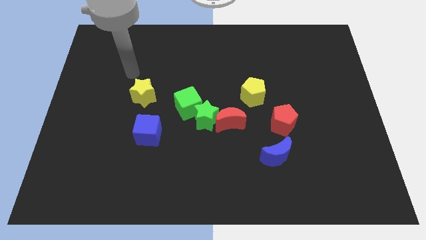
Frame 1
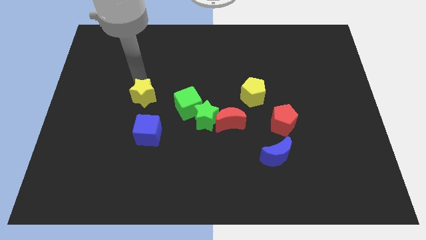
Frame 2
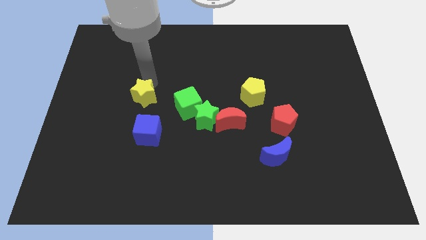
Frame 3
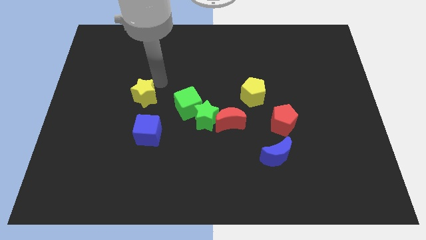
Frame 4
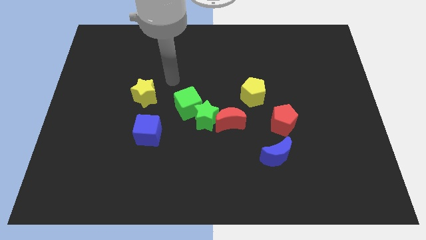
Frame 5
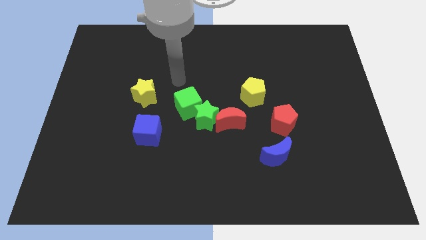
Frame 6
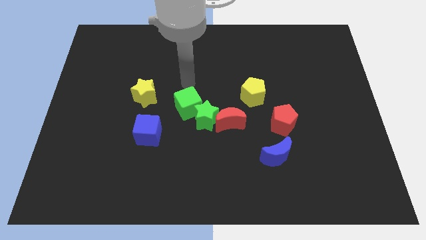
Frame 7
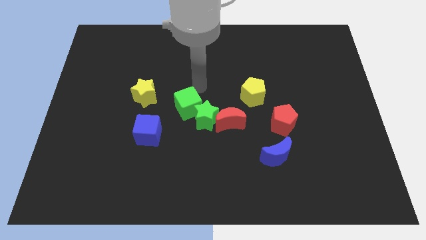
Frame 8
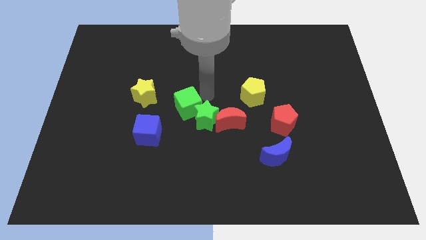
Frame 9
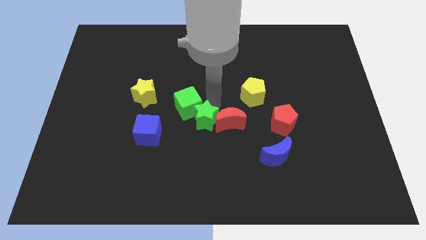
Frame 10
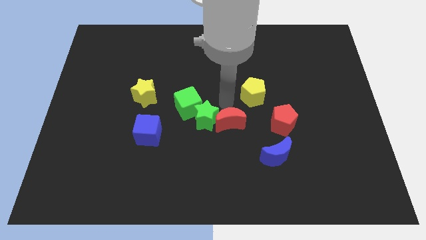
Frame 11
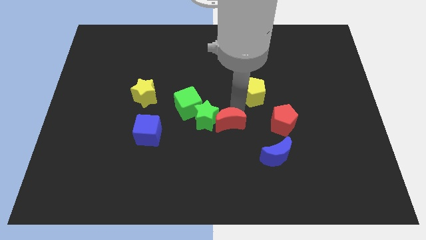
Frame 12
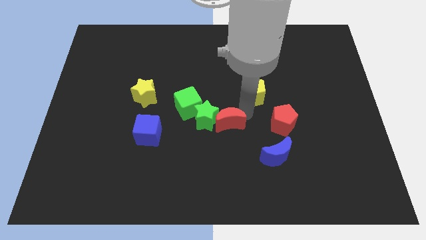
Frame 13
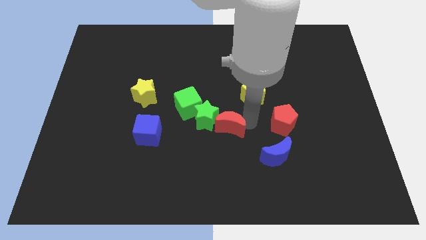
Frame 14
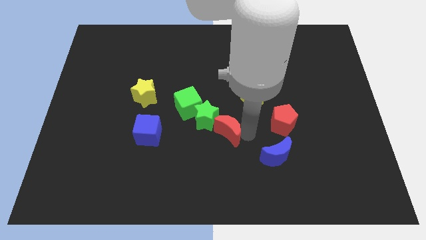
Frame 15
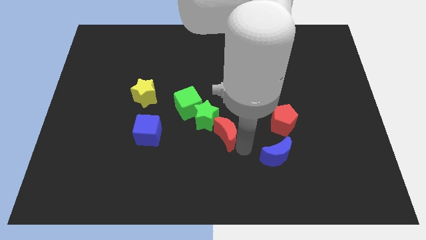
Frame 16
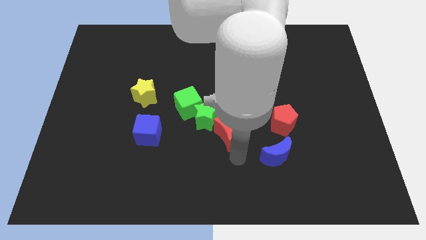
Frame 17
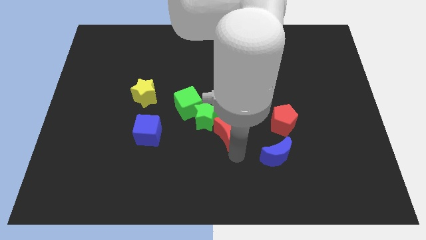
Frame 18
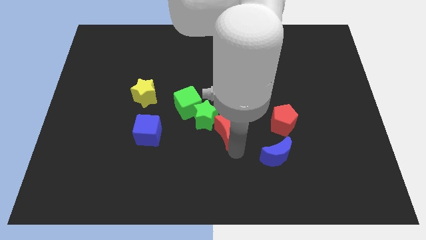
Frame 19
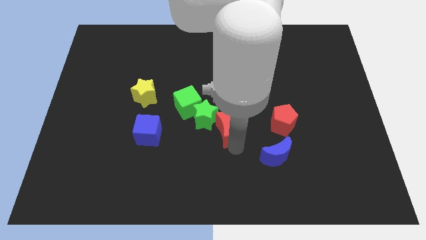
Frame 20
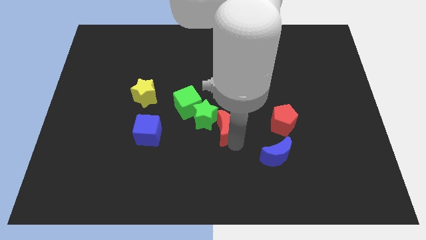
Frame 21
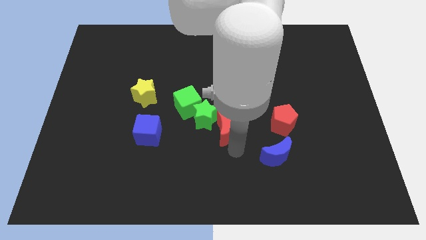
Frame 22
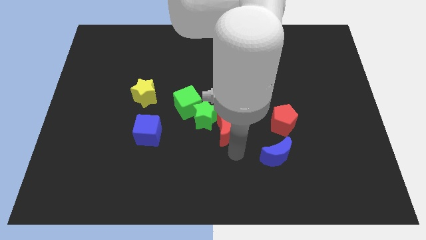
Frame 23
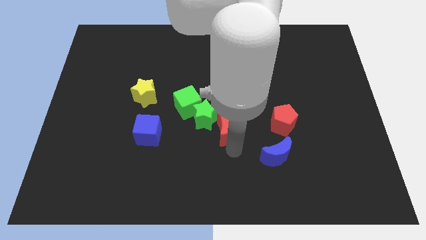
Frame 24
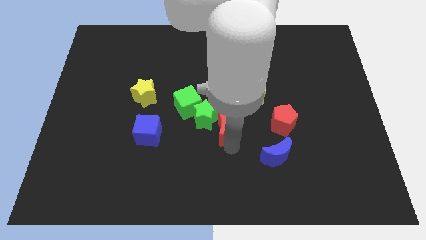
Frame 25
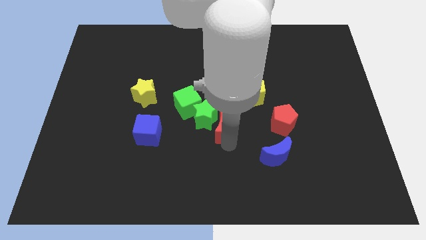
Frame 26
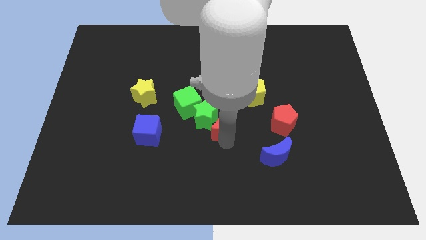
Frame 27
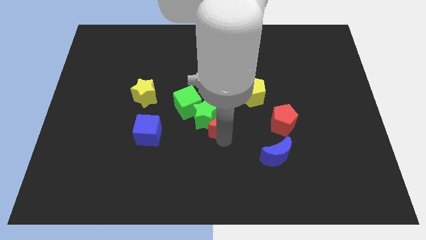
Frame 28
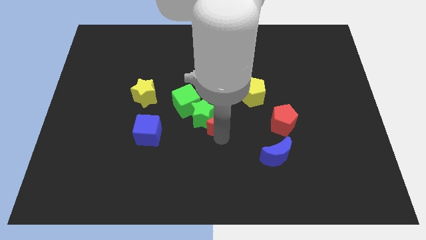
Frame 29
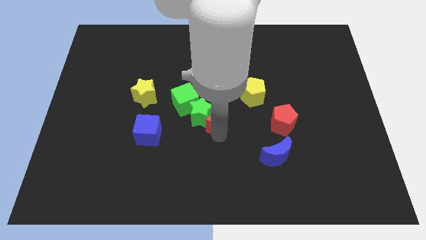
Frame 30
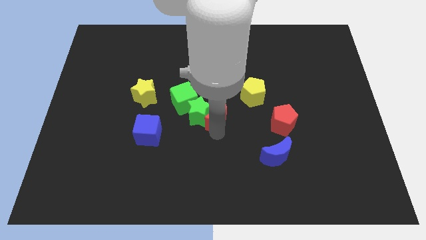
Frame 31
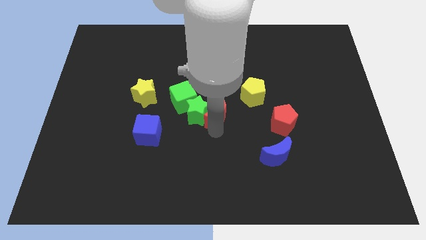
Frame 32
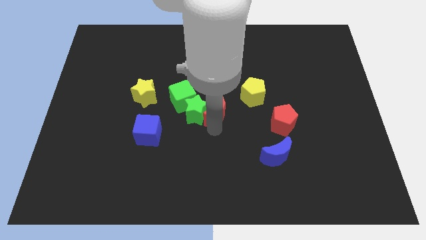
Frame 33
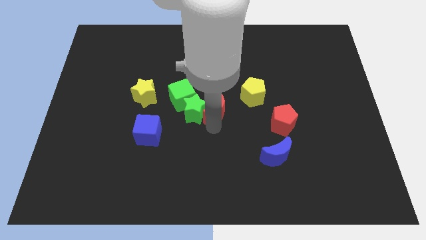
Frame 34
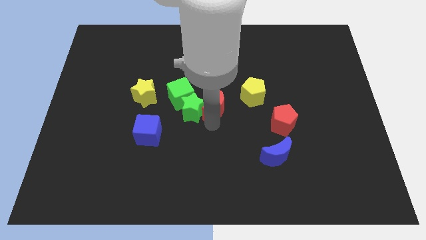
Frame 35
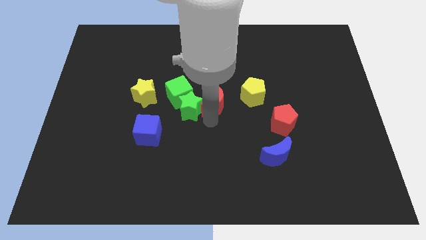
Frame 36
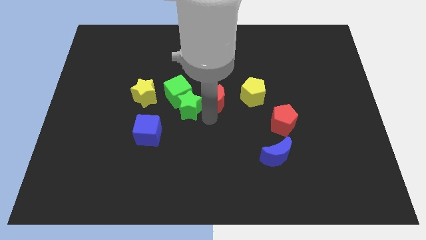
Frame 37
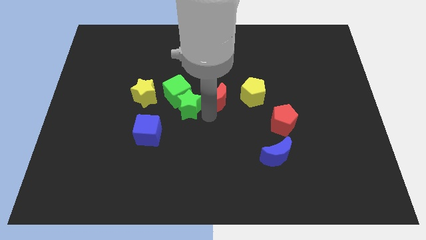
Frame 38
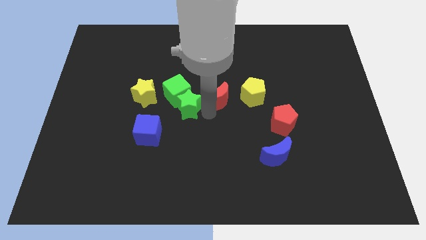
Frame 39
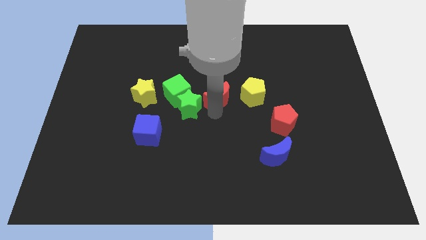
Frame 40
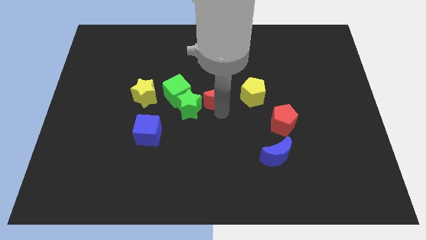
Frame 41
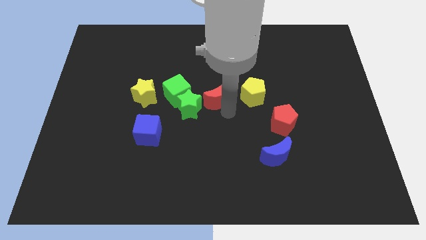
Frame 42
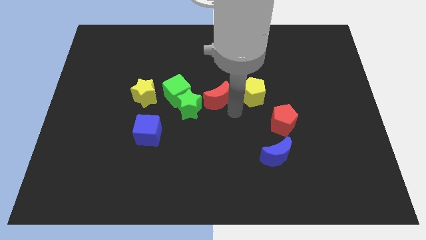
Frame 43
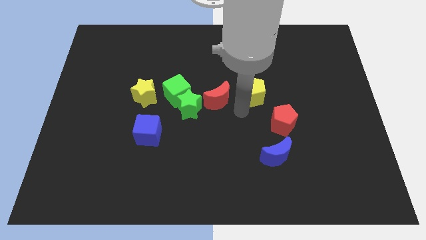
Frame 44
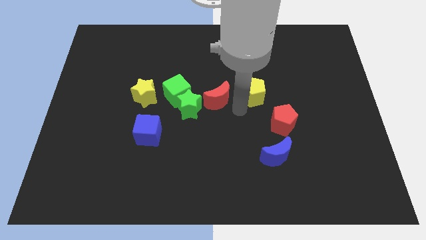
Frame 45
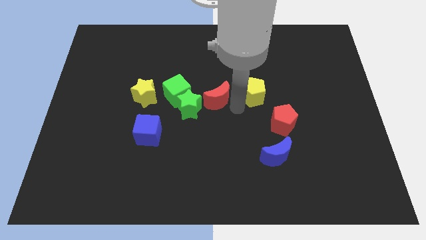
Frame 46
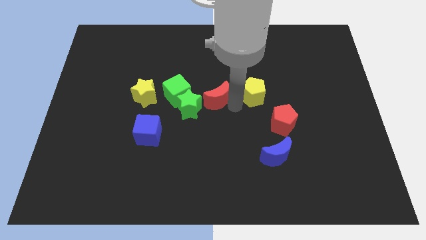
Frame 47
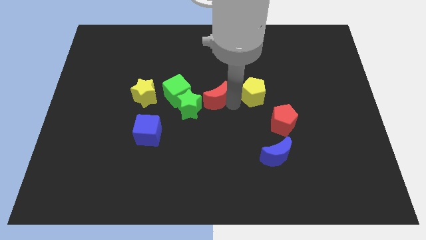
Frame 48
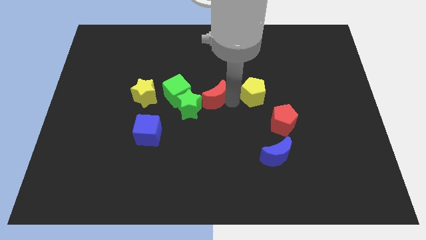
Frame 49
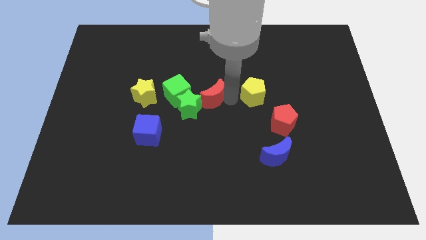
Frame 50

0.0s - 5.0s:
move the red moon up and then left a bit

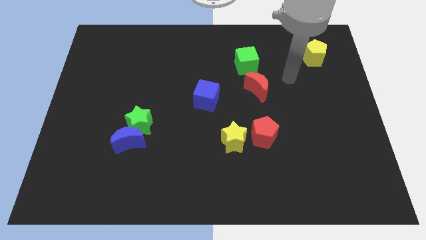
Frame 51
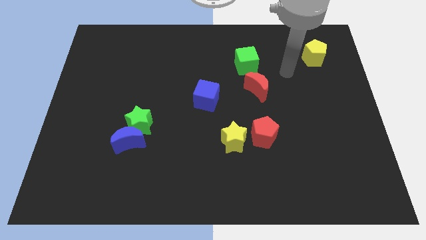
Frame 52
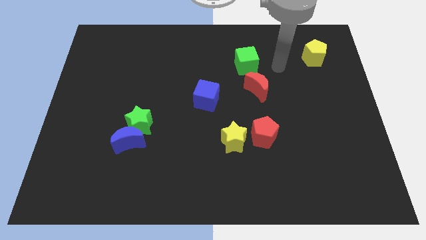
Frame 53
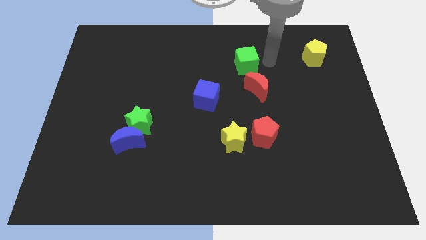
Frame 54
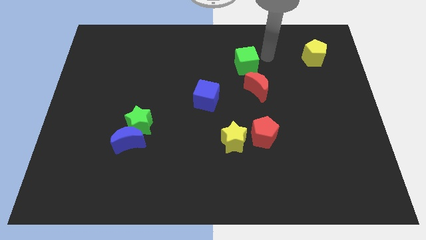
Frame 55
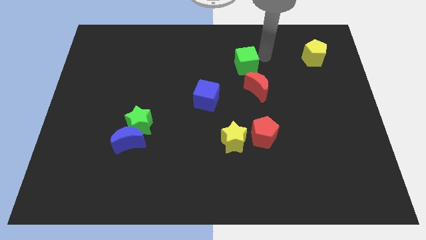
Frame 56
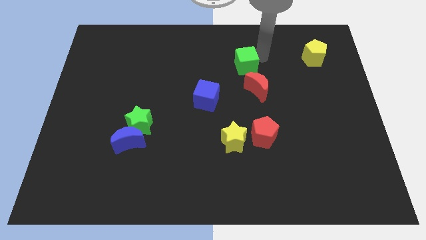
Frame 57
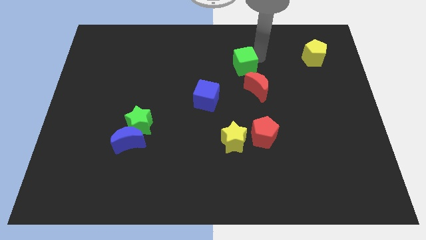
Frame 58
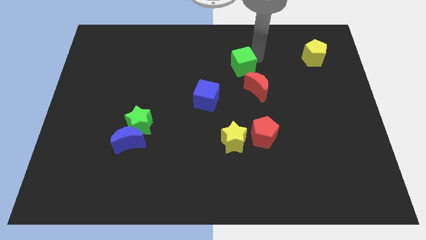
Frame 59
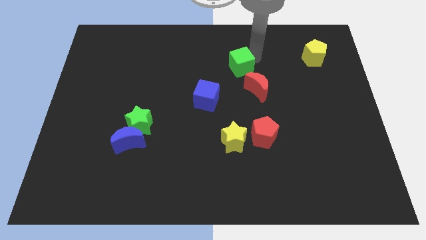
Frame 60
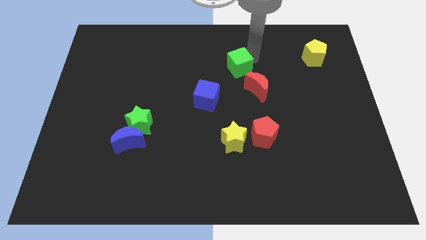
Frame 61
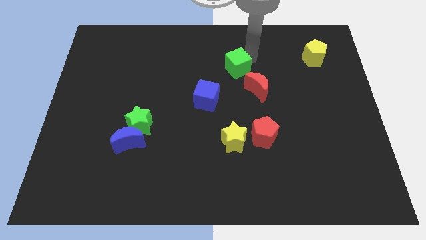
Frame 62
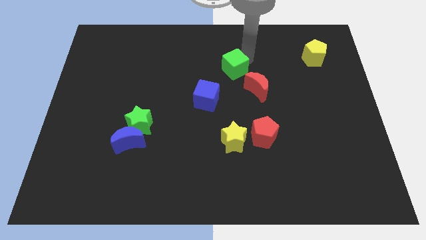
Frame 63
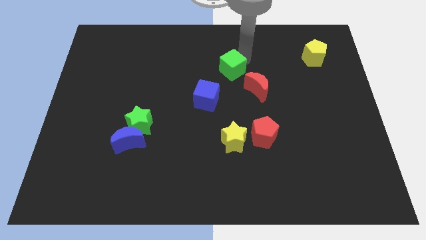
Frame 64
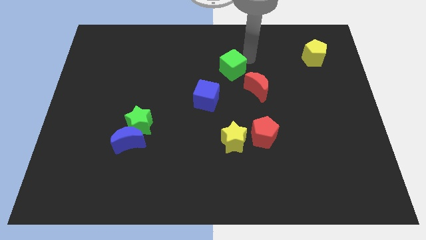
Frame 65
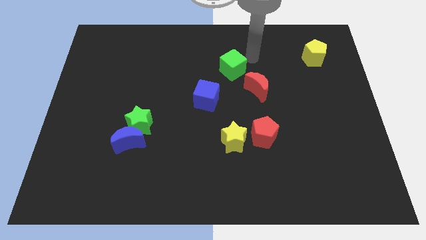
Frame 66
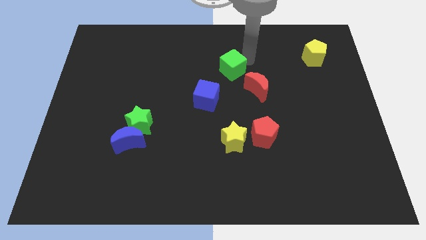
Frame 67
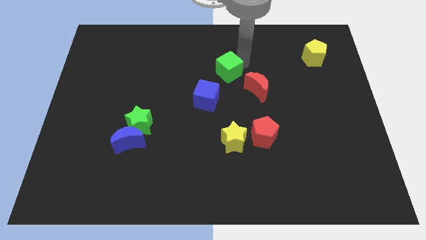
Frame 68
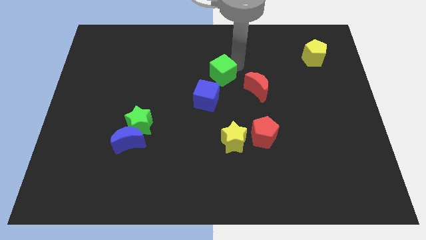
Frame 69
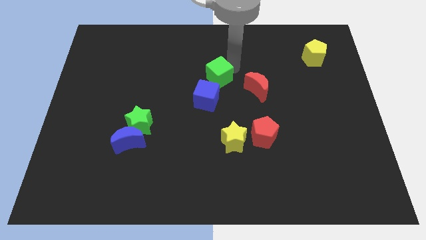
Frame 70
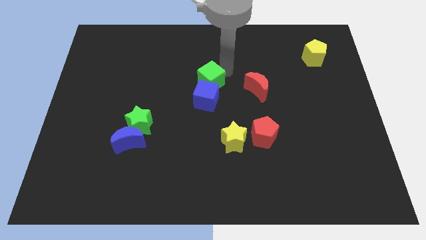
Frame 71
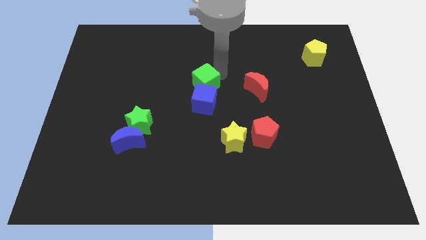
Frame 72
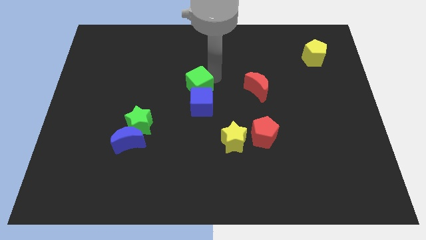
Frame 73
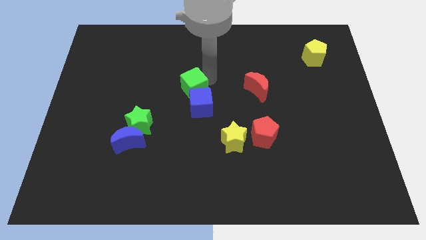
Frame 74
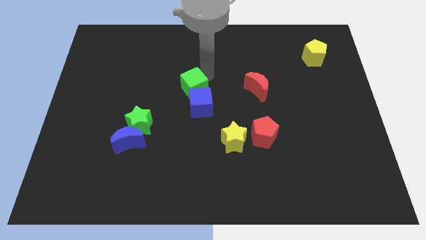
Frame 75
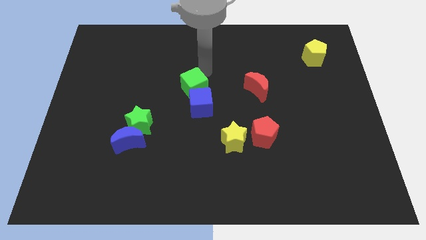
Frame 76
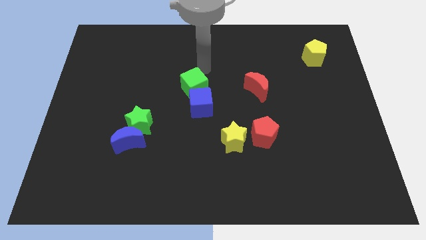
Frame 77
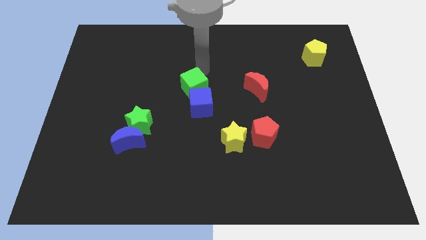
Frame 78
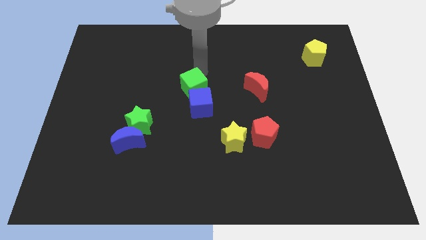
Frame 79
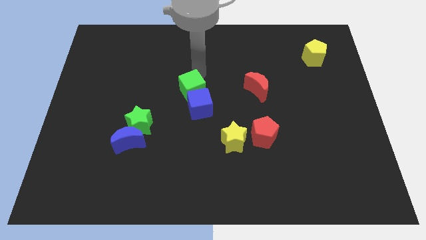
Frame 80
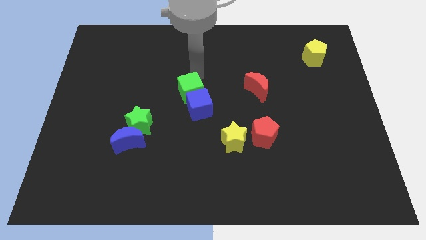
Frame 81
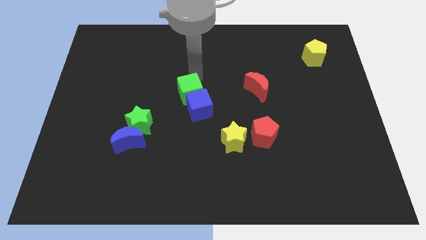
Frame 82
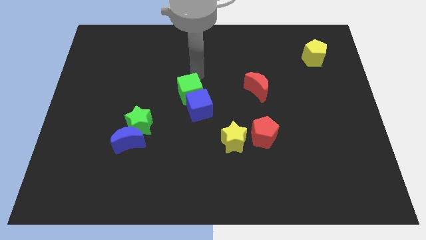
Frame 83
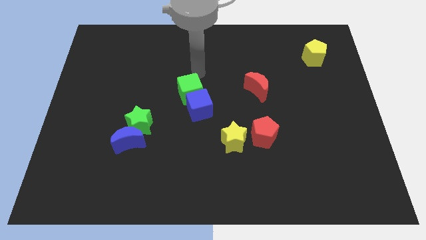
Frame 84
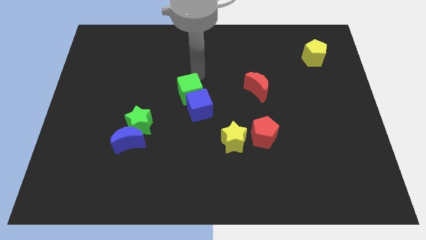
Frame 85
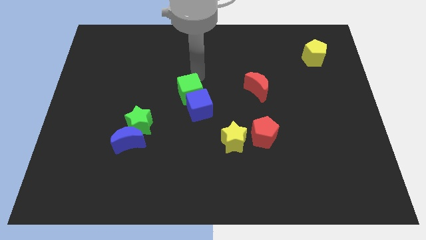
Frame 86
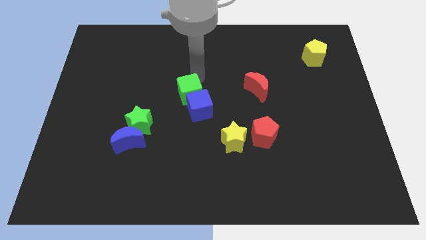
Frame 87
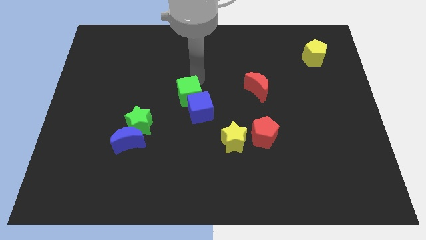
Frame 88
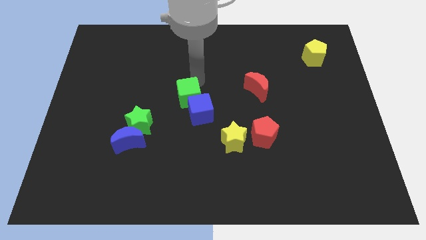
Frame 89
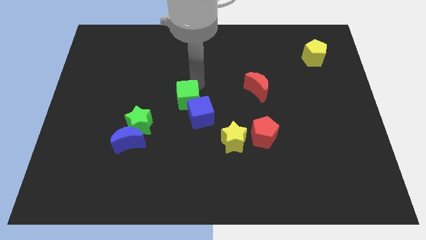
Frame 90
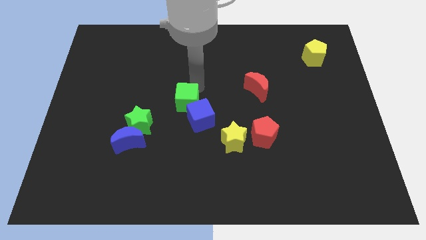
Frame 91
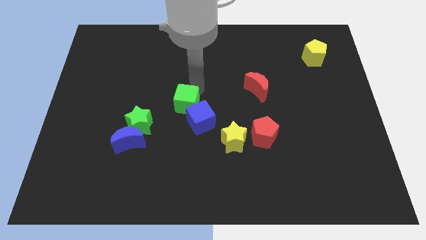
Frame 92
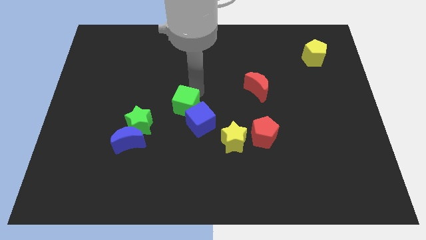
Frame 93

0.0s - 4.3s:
slide the green cube down and to the left diagonally
